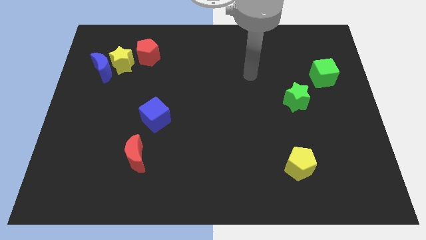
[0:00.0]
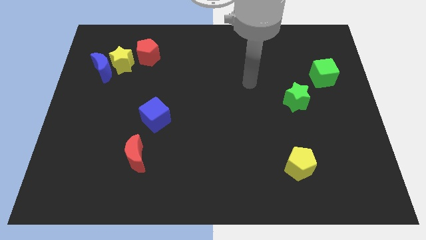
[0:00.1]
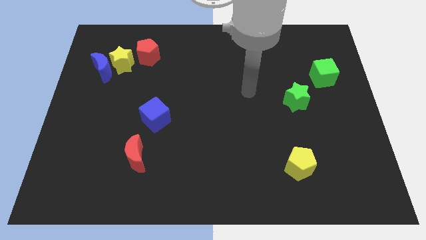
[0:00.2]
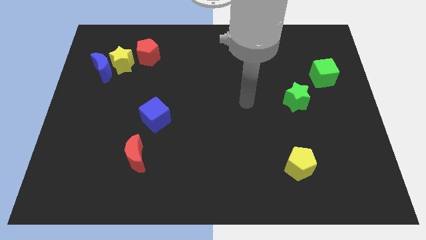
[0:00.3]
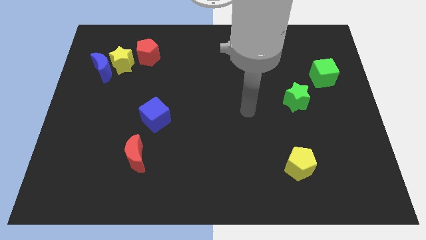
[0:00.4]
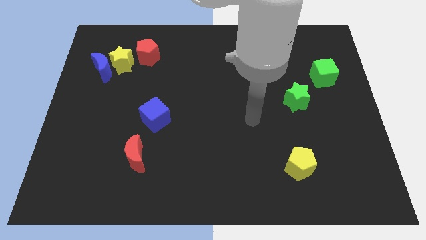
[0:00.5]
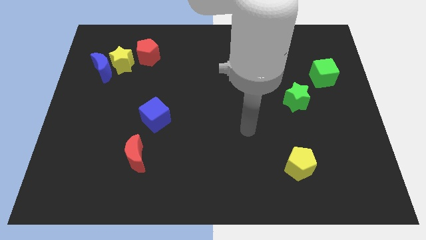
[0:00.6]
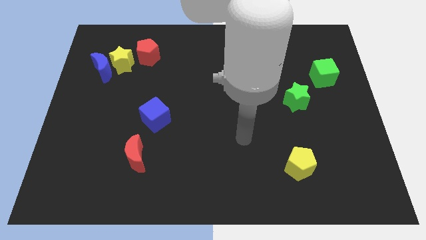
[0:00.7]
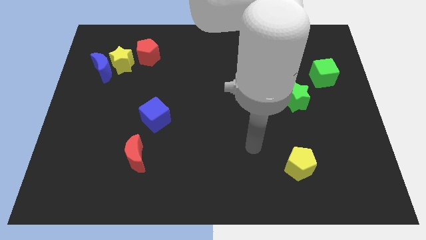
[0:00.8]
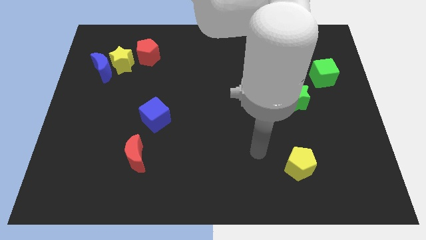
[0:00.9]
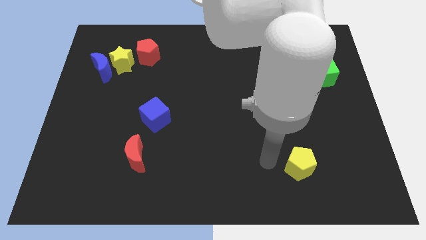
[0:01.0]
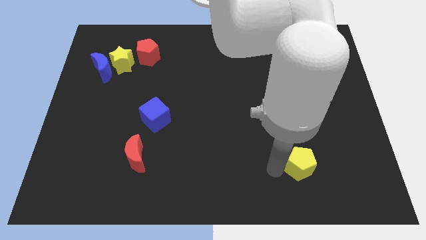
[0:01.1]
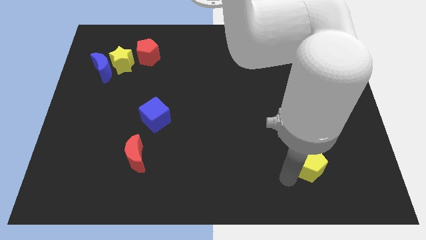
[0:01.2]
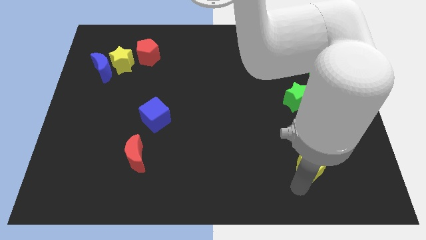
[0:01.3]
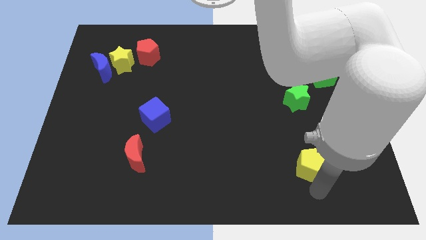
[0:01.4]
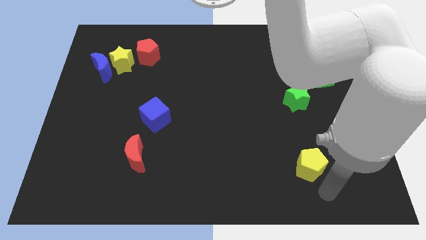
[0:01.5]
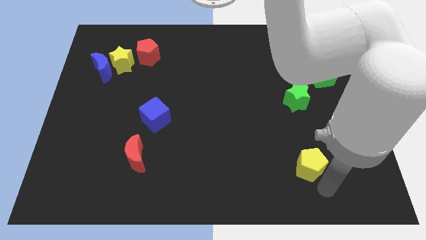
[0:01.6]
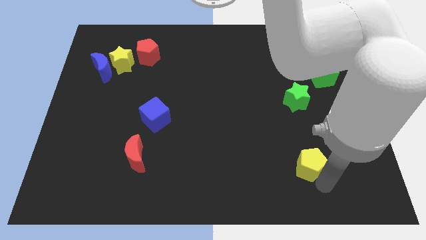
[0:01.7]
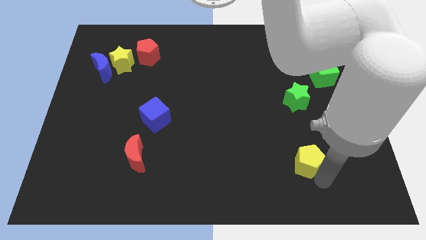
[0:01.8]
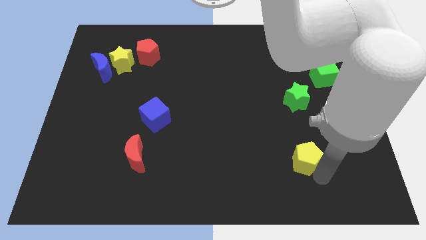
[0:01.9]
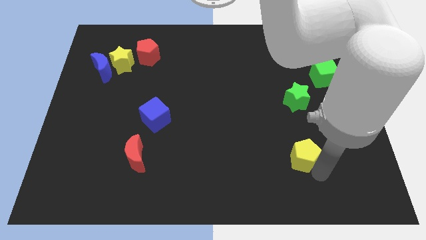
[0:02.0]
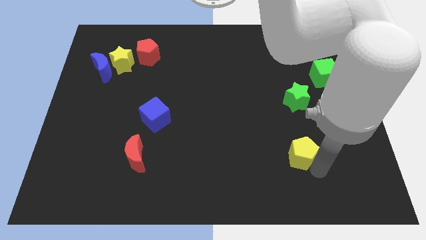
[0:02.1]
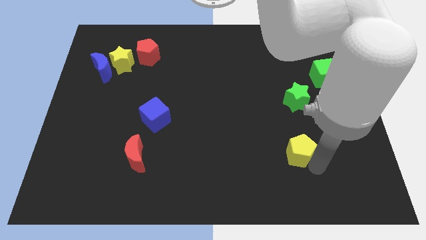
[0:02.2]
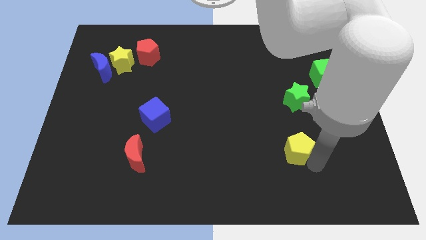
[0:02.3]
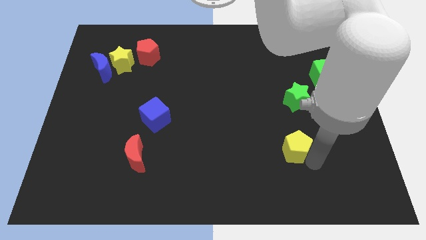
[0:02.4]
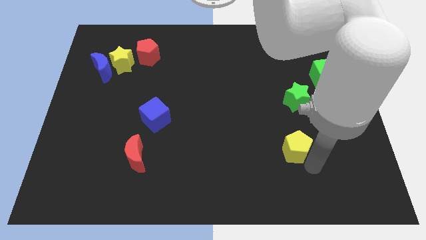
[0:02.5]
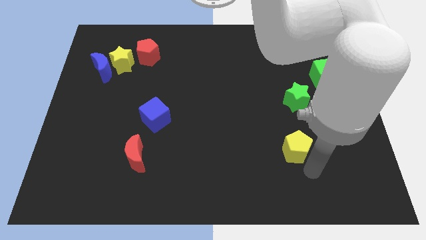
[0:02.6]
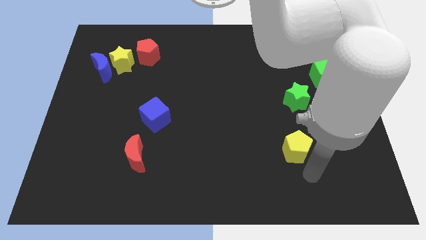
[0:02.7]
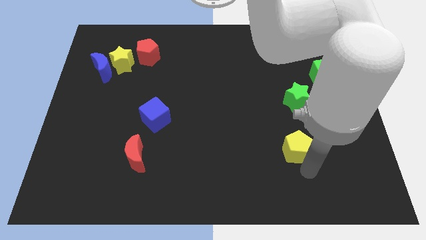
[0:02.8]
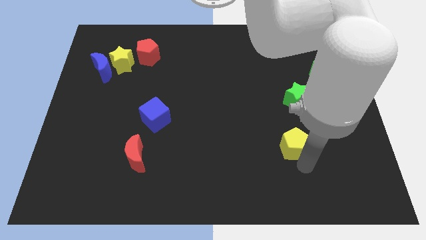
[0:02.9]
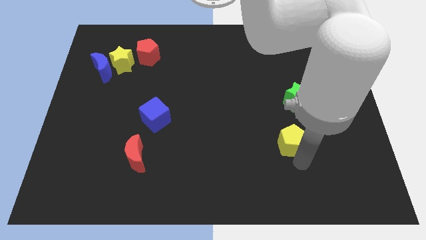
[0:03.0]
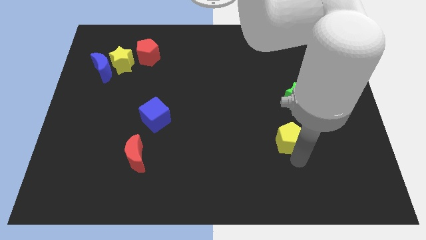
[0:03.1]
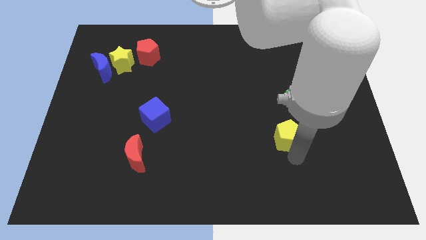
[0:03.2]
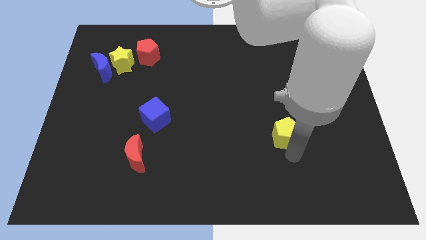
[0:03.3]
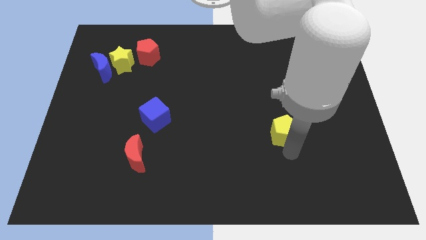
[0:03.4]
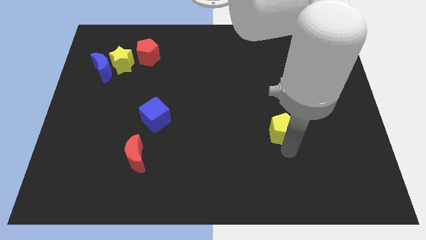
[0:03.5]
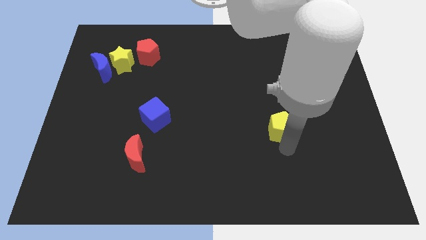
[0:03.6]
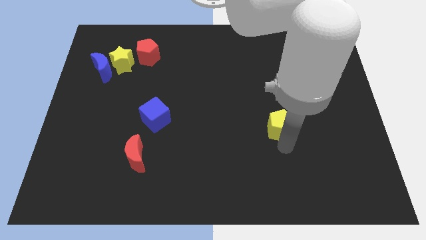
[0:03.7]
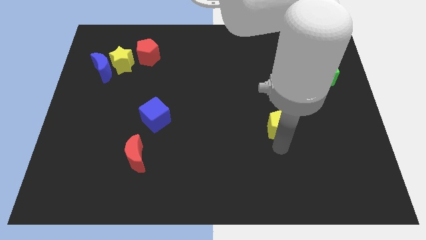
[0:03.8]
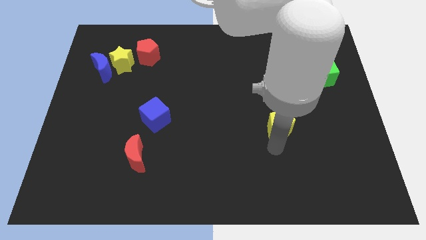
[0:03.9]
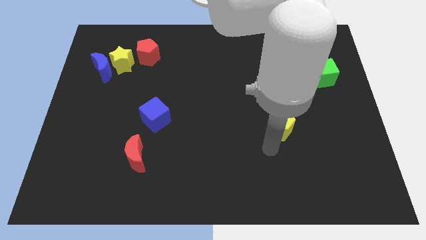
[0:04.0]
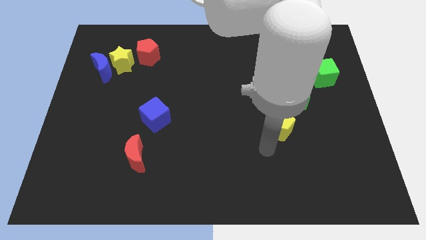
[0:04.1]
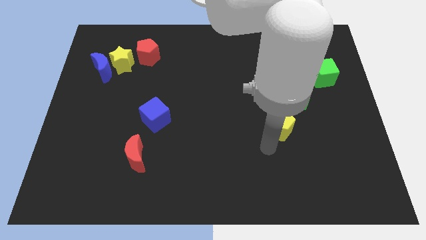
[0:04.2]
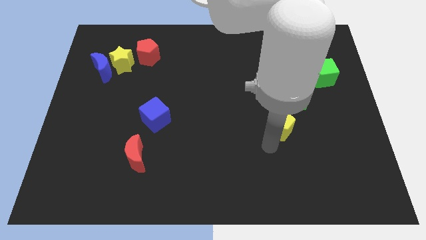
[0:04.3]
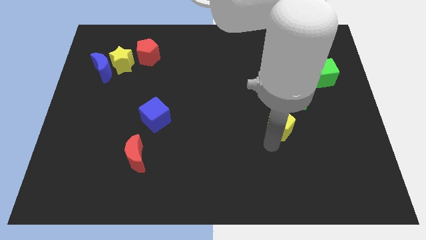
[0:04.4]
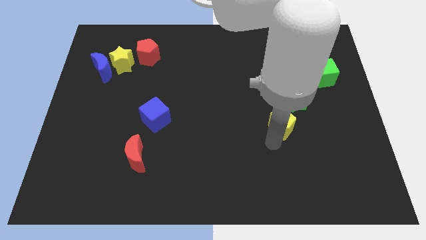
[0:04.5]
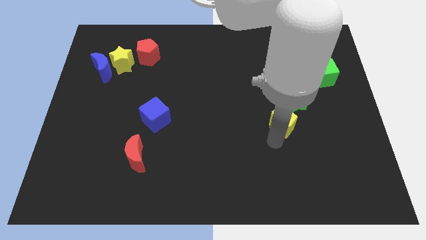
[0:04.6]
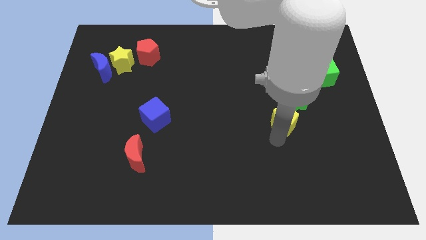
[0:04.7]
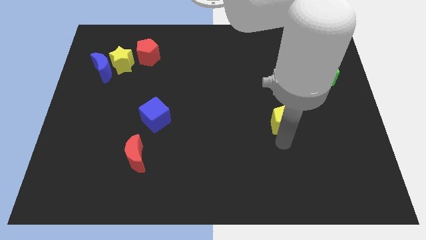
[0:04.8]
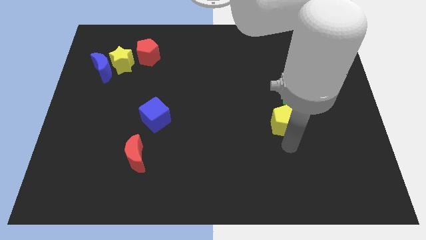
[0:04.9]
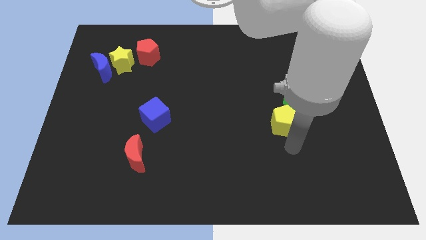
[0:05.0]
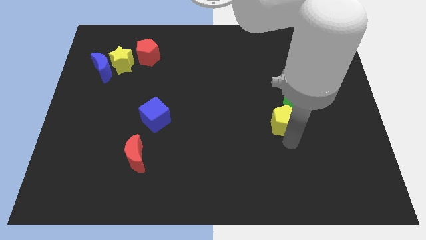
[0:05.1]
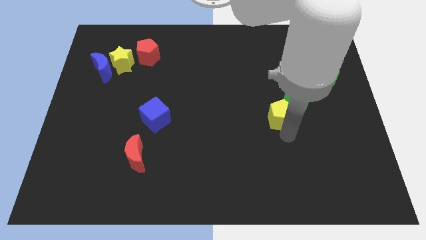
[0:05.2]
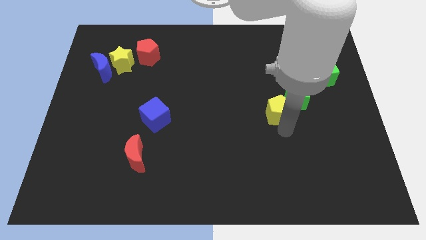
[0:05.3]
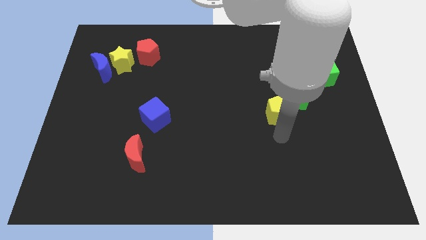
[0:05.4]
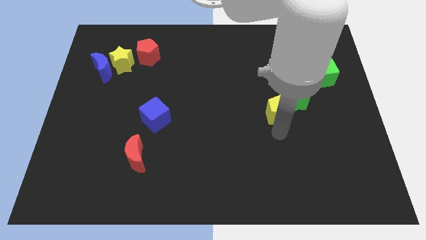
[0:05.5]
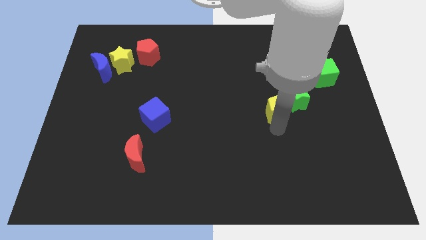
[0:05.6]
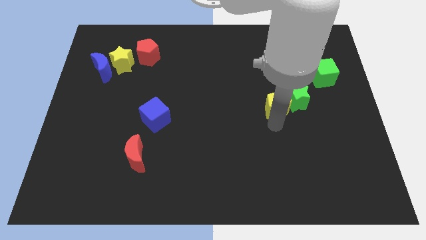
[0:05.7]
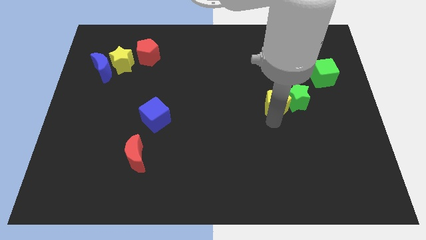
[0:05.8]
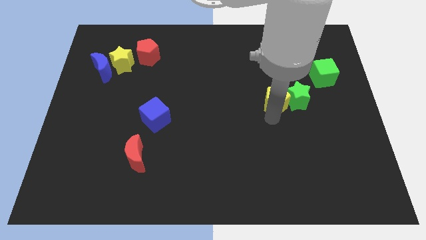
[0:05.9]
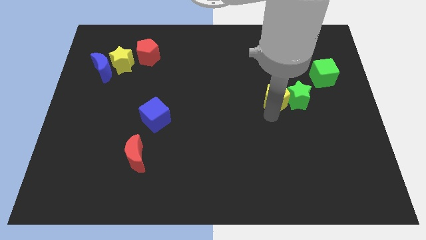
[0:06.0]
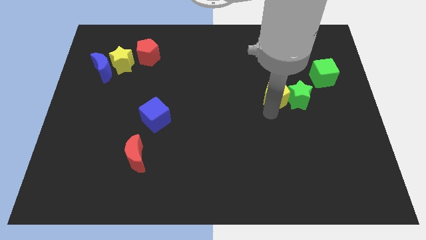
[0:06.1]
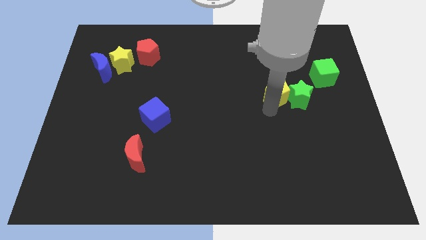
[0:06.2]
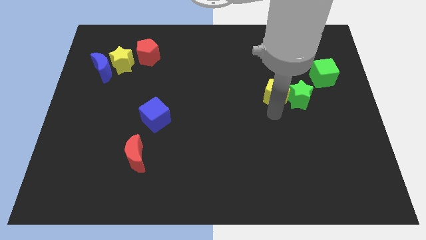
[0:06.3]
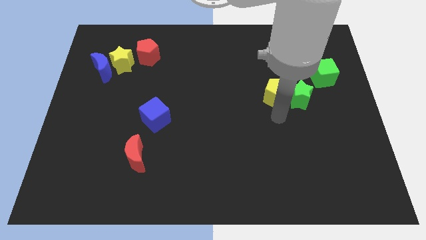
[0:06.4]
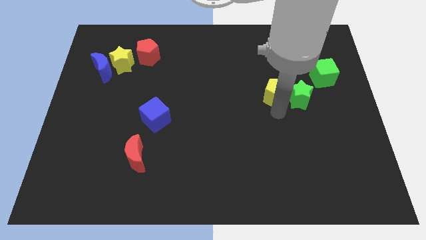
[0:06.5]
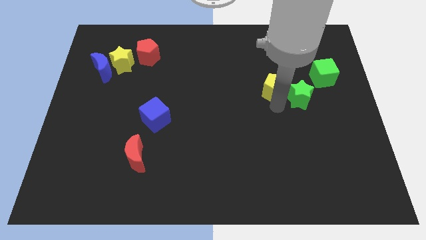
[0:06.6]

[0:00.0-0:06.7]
slide the yellow pentagon upwards

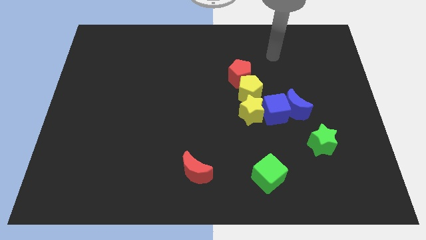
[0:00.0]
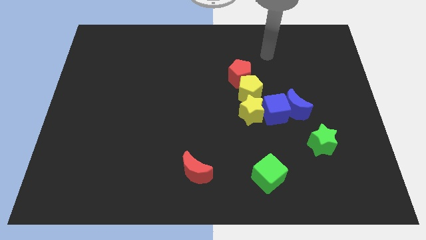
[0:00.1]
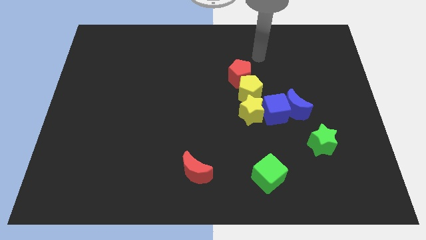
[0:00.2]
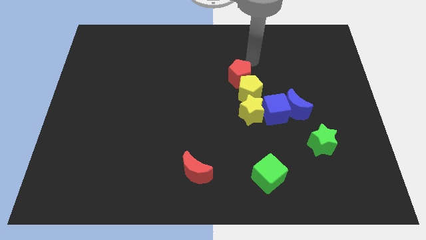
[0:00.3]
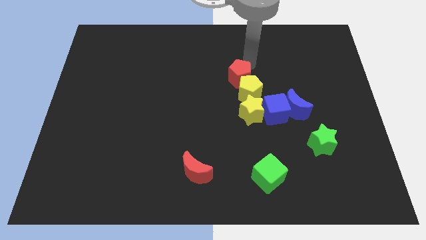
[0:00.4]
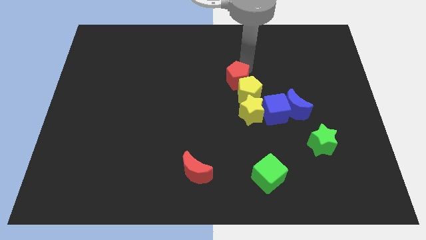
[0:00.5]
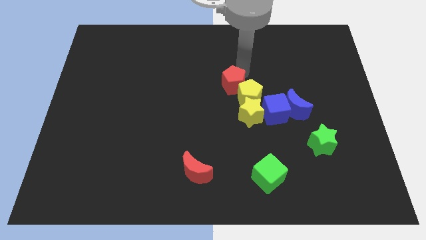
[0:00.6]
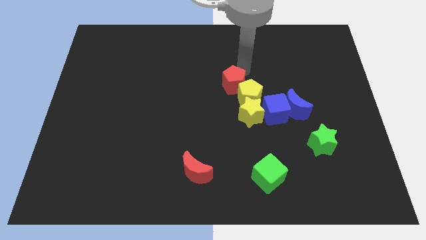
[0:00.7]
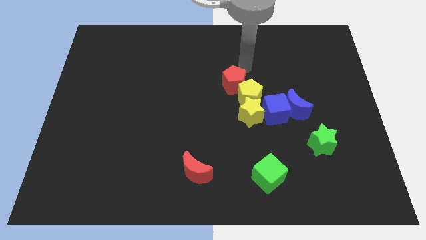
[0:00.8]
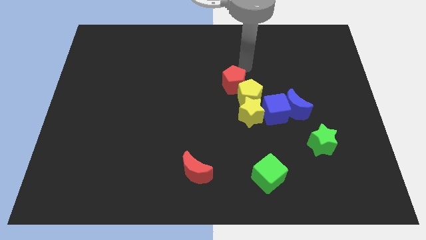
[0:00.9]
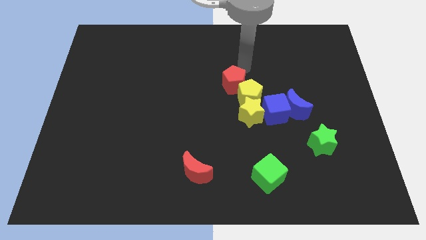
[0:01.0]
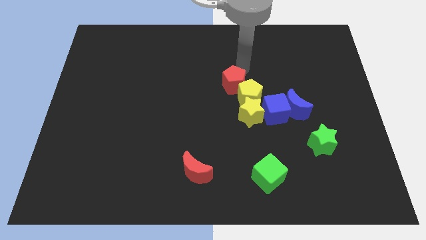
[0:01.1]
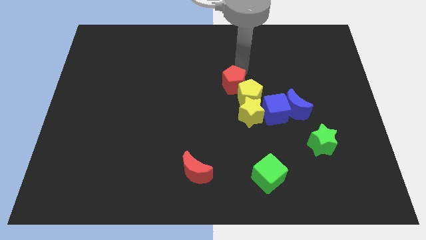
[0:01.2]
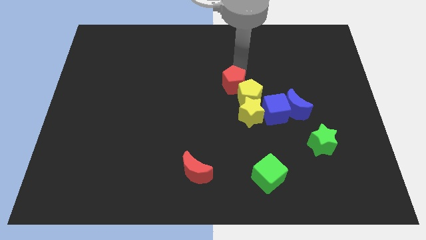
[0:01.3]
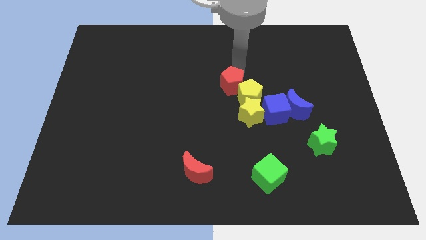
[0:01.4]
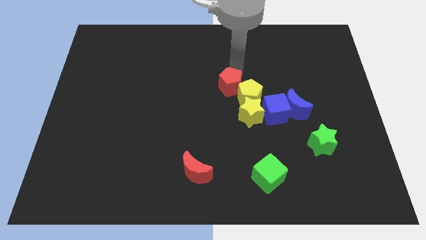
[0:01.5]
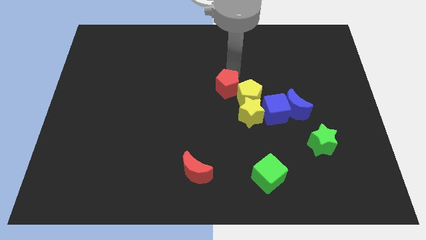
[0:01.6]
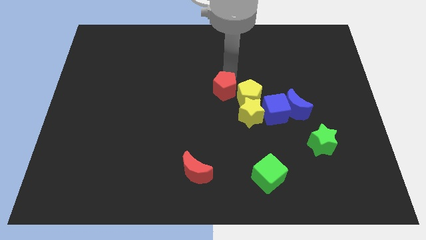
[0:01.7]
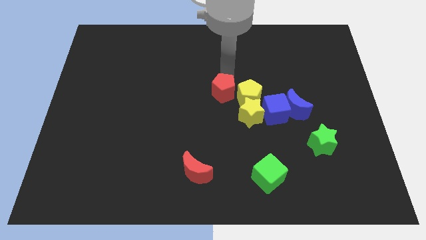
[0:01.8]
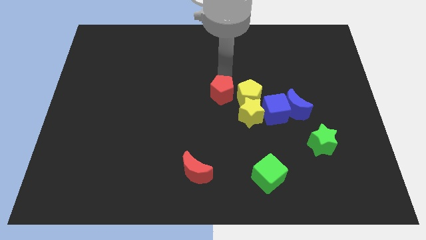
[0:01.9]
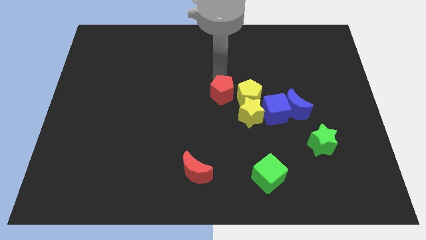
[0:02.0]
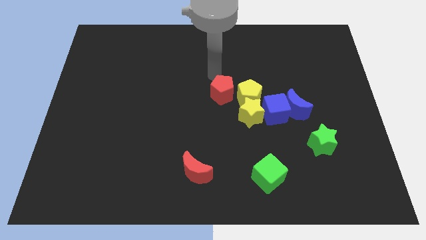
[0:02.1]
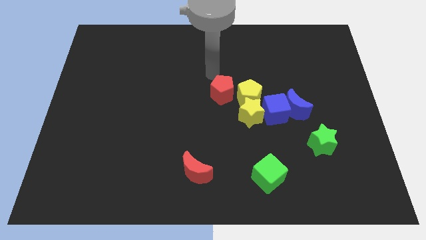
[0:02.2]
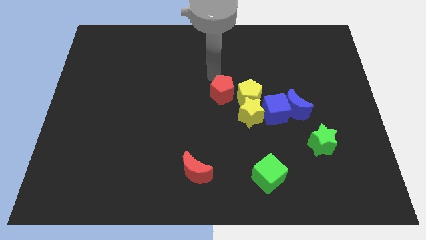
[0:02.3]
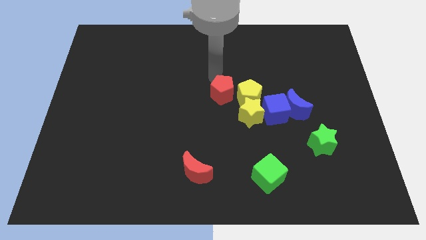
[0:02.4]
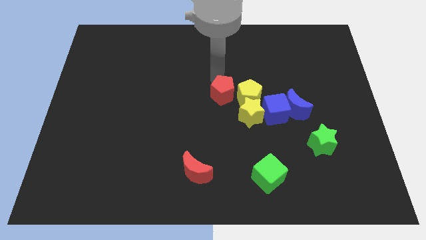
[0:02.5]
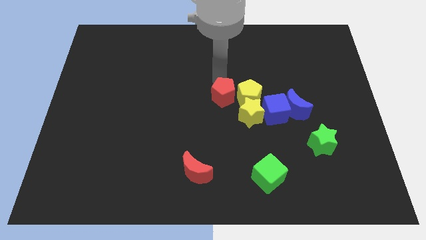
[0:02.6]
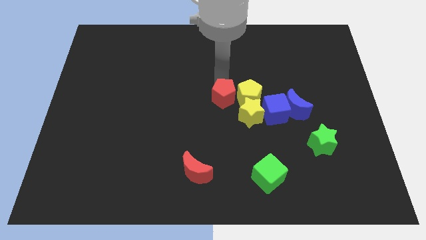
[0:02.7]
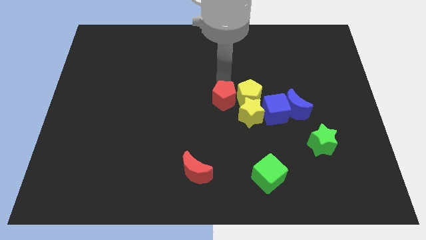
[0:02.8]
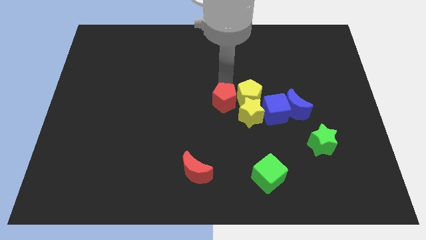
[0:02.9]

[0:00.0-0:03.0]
move the red pentagon a little down
